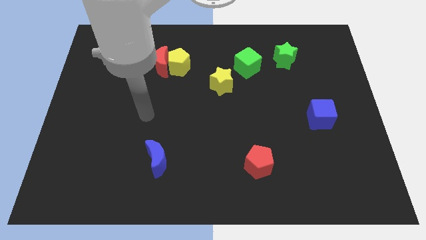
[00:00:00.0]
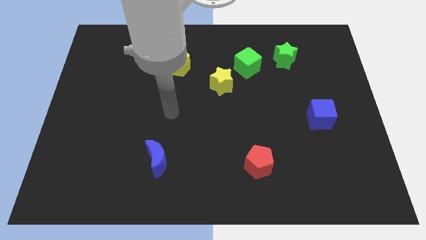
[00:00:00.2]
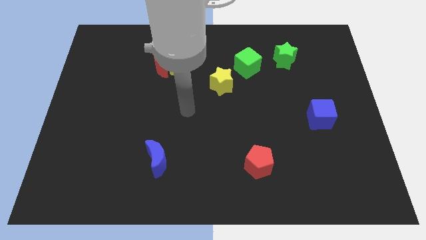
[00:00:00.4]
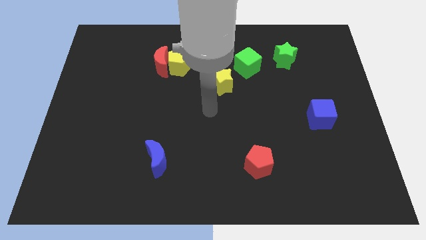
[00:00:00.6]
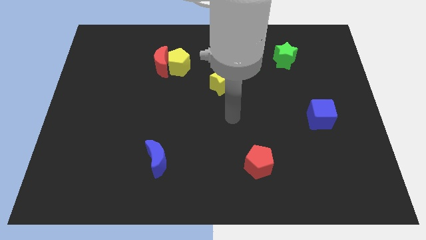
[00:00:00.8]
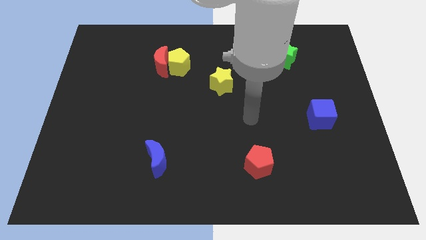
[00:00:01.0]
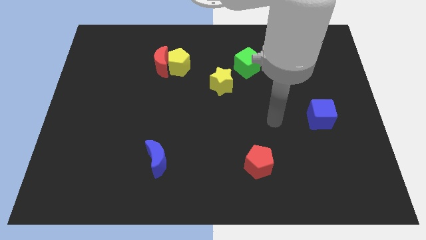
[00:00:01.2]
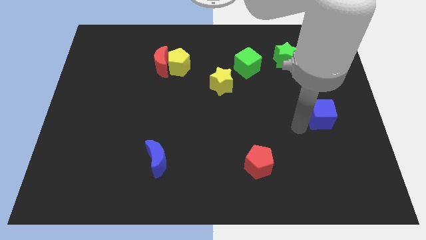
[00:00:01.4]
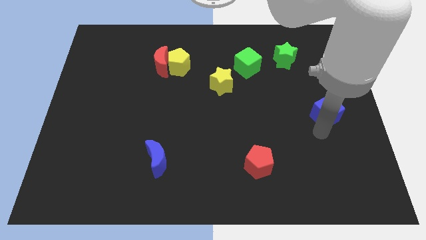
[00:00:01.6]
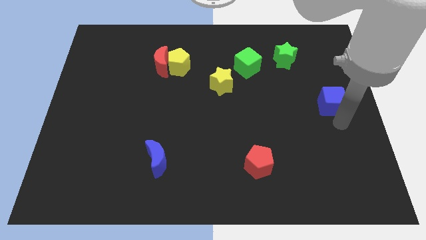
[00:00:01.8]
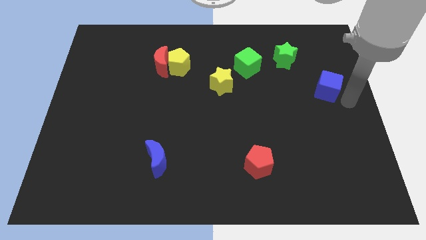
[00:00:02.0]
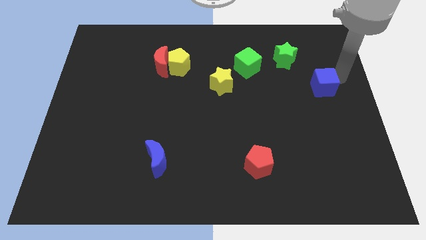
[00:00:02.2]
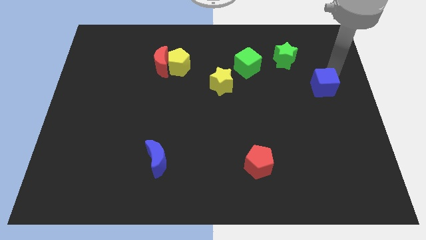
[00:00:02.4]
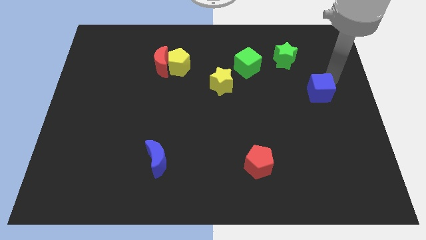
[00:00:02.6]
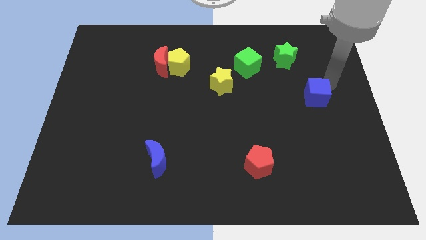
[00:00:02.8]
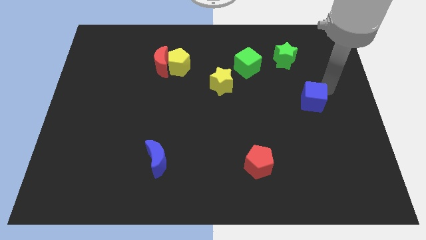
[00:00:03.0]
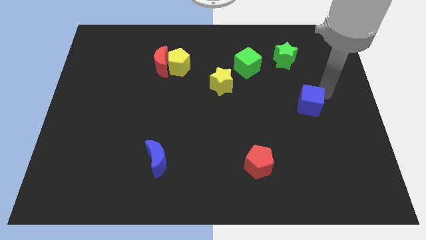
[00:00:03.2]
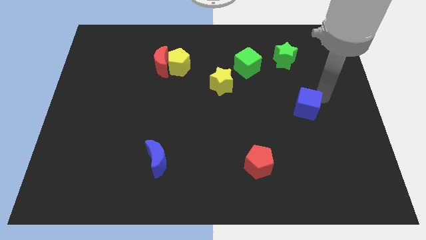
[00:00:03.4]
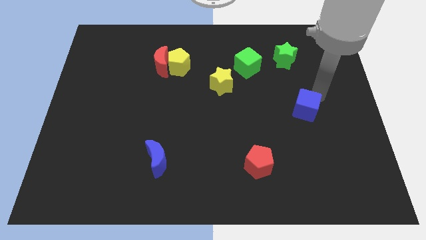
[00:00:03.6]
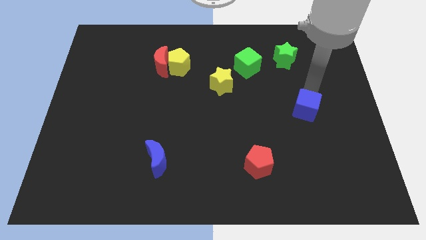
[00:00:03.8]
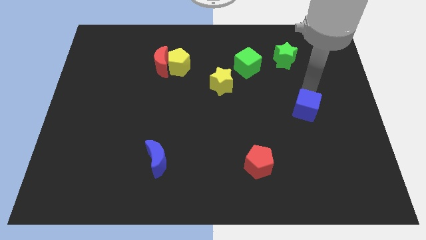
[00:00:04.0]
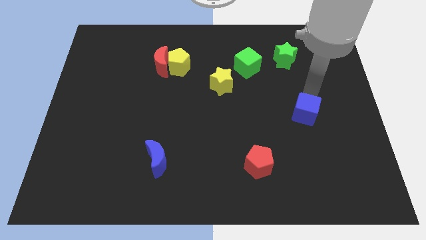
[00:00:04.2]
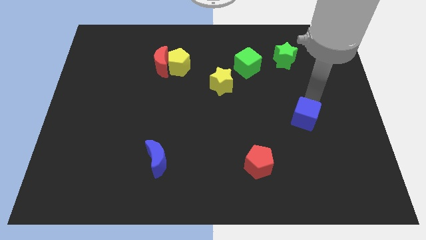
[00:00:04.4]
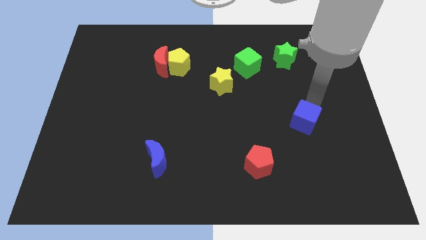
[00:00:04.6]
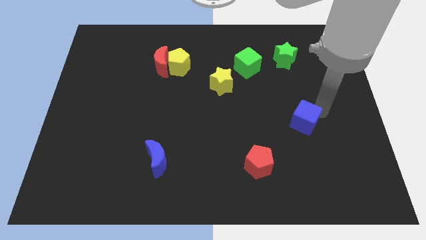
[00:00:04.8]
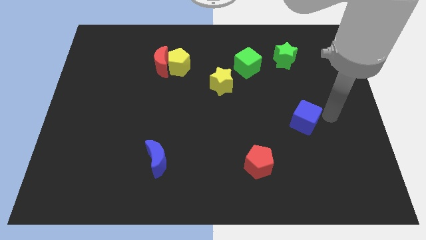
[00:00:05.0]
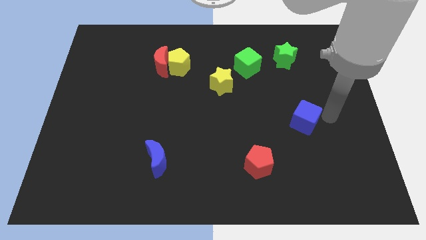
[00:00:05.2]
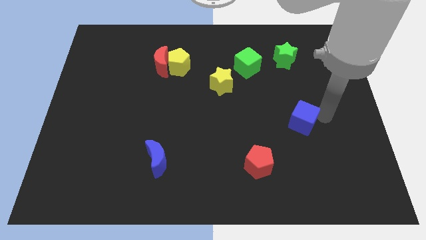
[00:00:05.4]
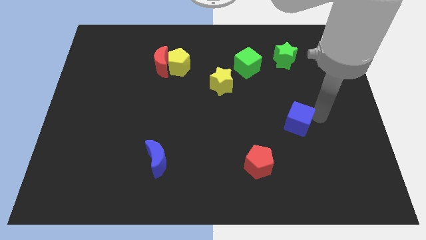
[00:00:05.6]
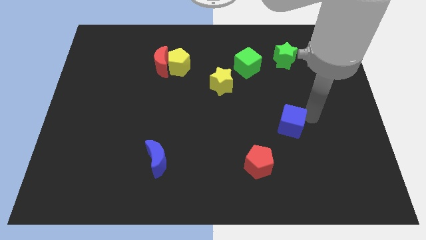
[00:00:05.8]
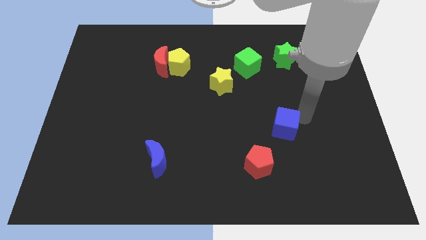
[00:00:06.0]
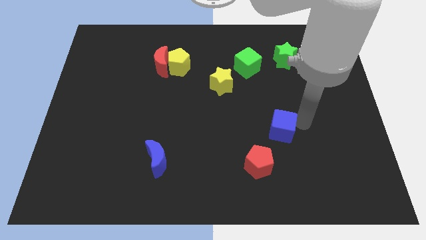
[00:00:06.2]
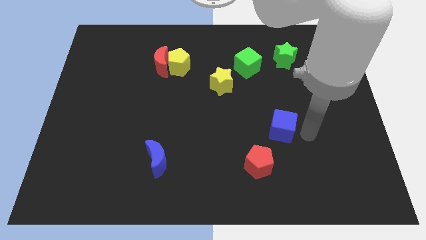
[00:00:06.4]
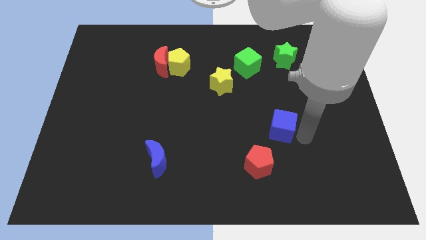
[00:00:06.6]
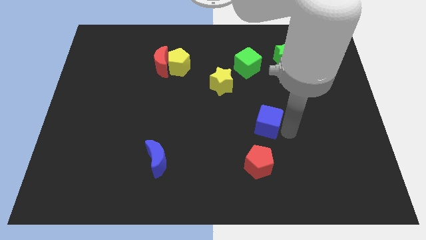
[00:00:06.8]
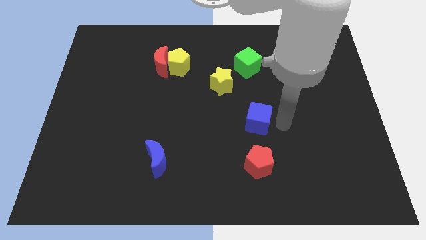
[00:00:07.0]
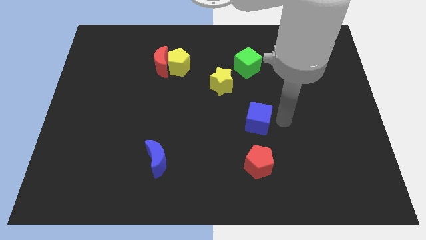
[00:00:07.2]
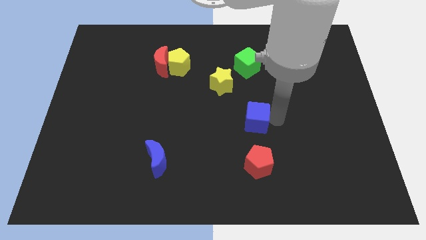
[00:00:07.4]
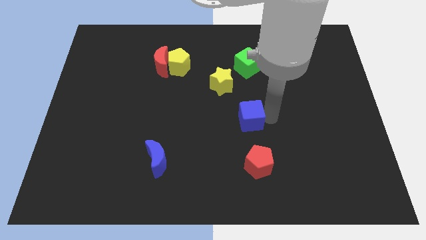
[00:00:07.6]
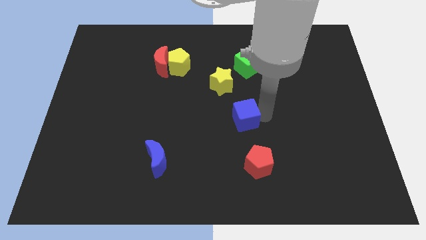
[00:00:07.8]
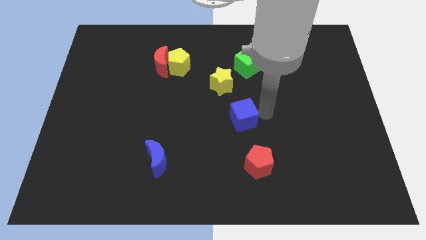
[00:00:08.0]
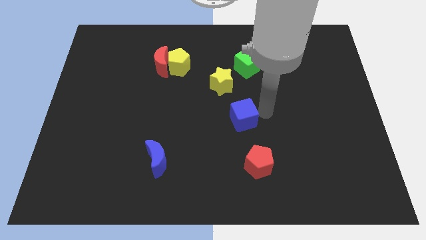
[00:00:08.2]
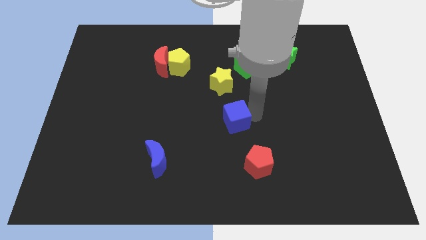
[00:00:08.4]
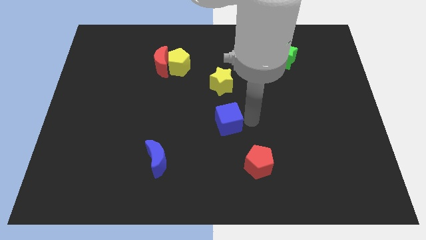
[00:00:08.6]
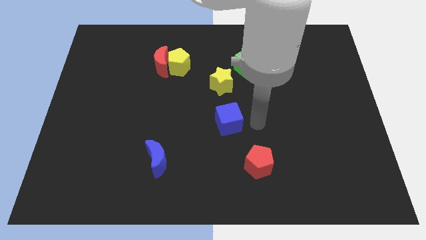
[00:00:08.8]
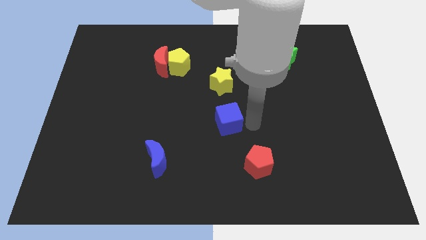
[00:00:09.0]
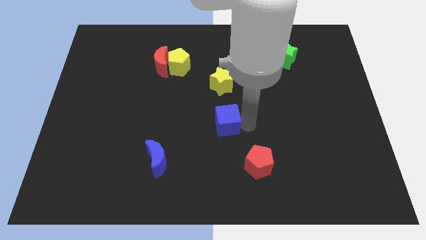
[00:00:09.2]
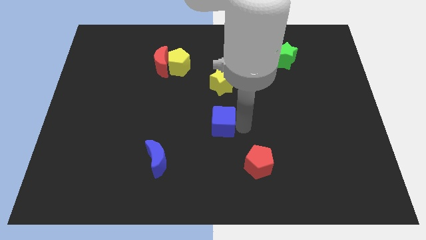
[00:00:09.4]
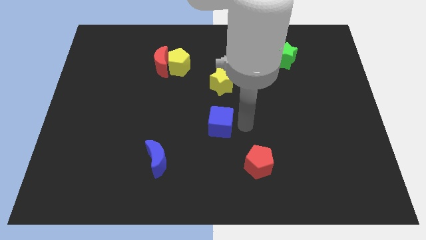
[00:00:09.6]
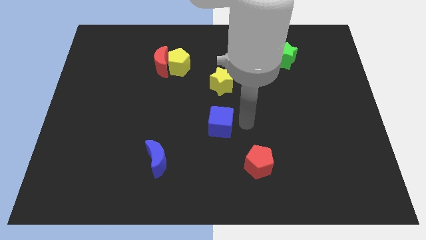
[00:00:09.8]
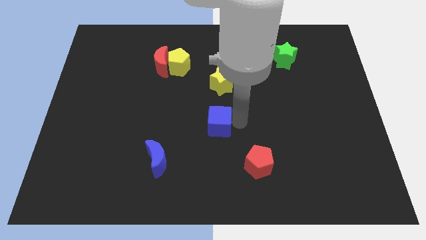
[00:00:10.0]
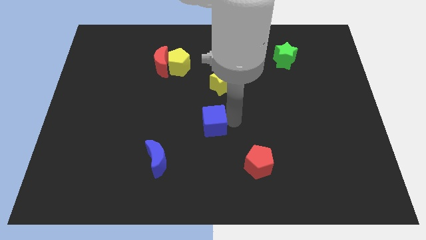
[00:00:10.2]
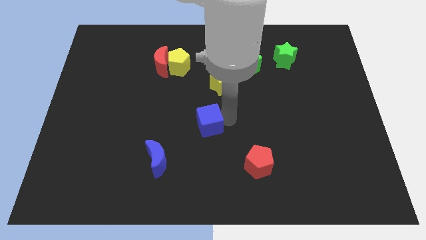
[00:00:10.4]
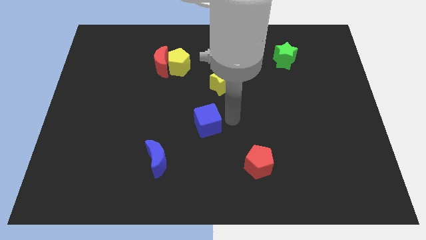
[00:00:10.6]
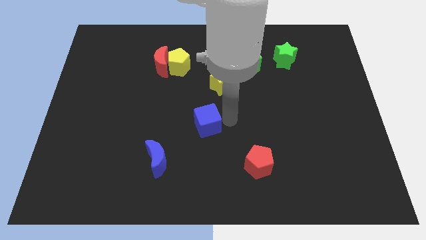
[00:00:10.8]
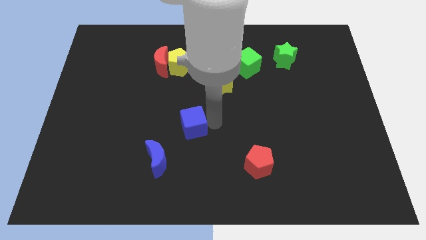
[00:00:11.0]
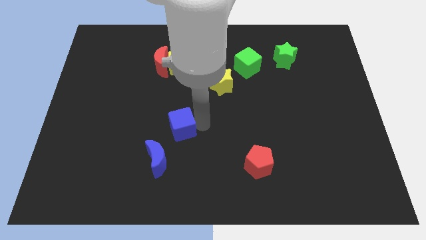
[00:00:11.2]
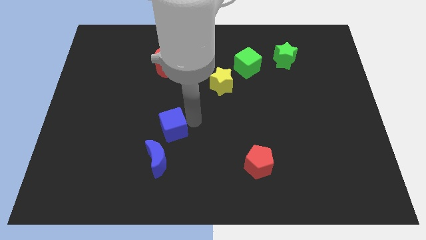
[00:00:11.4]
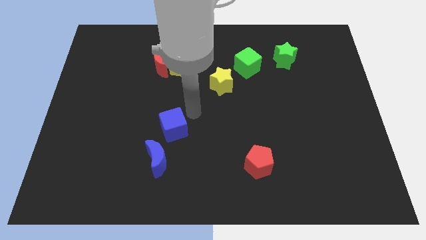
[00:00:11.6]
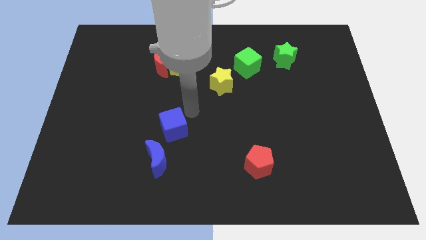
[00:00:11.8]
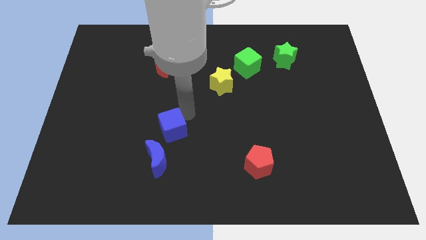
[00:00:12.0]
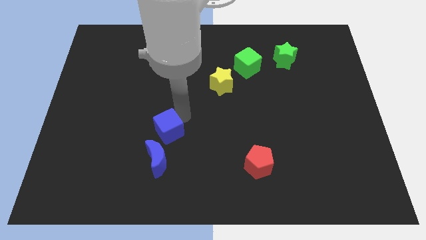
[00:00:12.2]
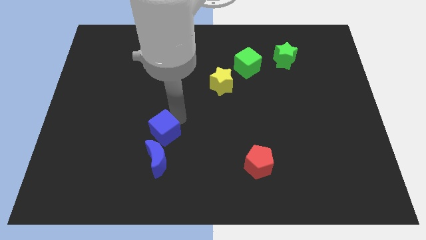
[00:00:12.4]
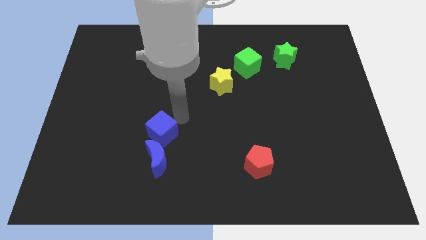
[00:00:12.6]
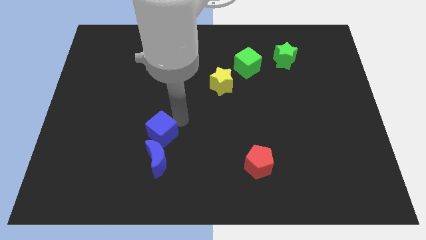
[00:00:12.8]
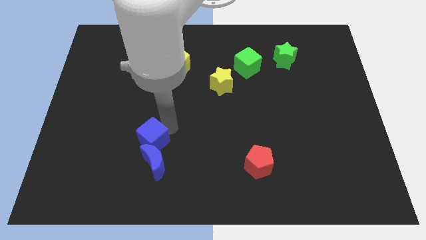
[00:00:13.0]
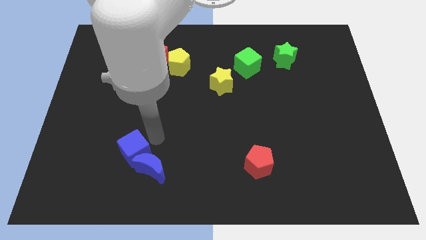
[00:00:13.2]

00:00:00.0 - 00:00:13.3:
put the blue cube to the left of the blue moon
